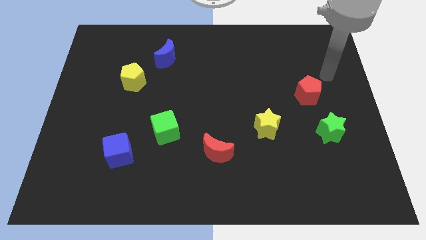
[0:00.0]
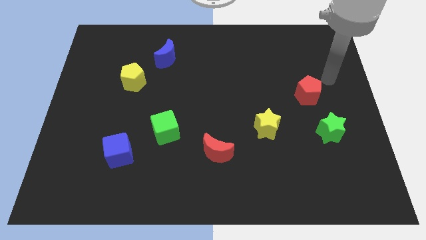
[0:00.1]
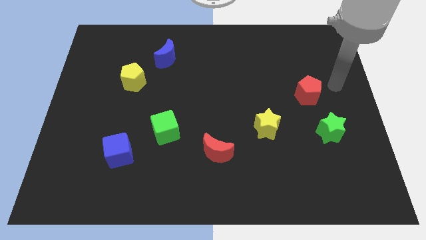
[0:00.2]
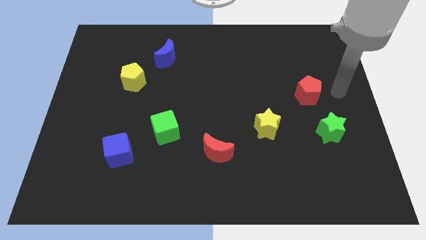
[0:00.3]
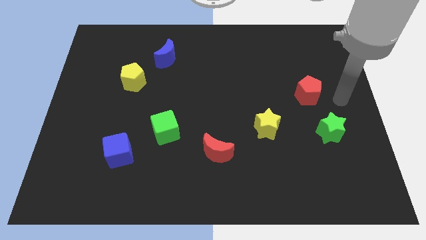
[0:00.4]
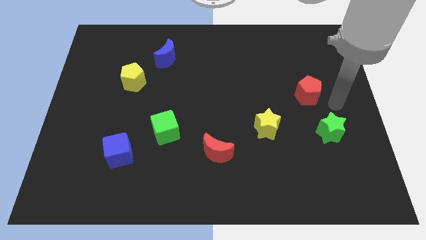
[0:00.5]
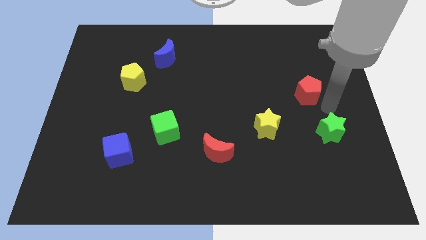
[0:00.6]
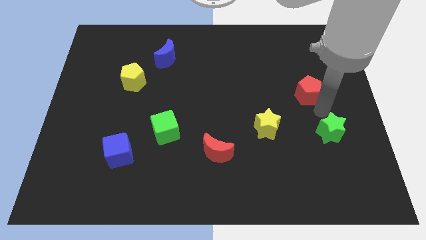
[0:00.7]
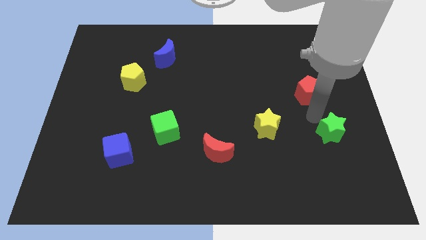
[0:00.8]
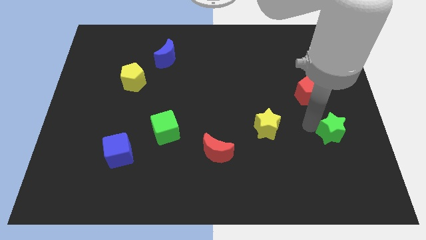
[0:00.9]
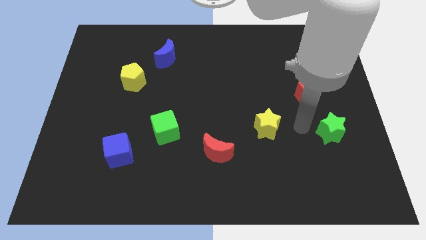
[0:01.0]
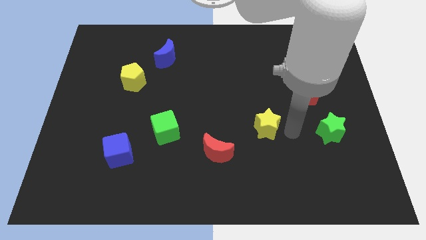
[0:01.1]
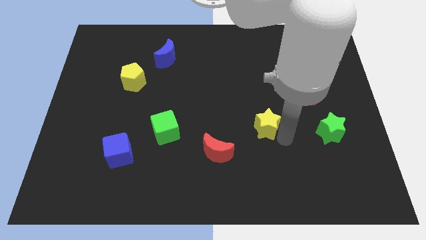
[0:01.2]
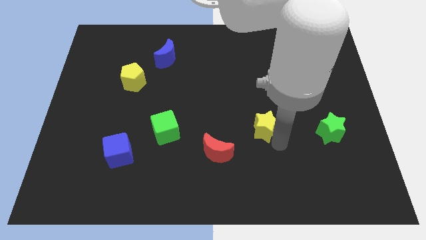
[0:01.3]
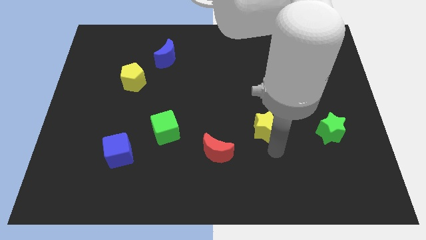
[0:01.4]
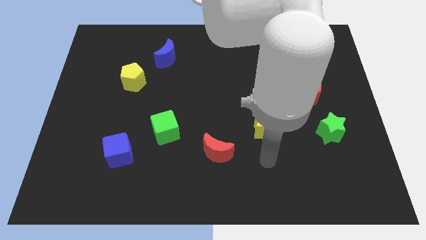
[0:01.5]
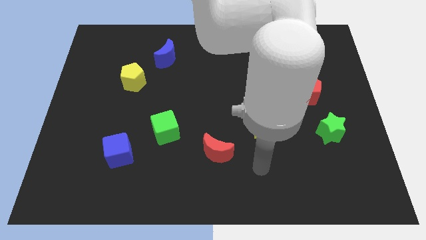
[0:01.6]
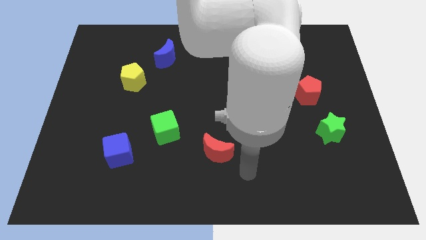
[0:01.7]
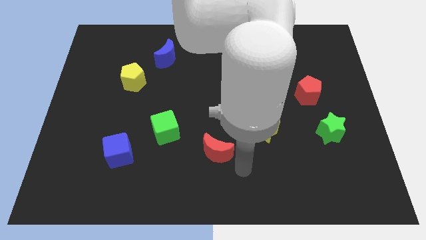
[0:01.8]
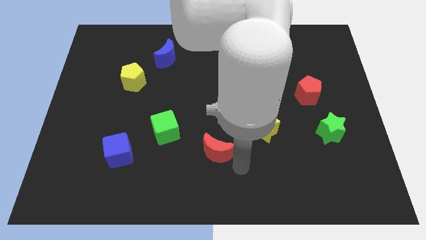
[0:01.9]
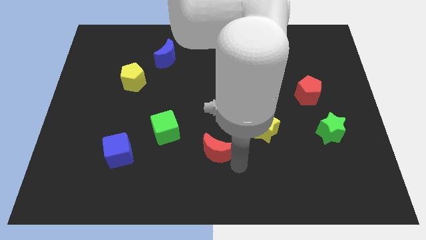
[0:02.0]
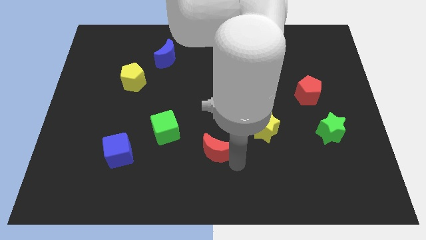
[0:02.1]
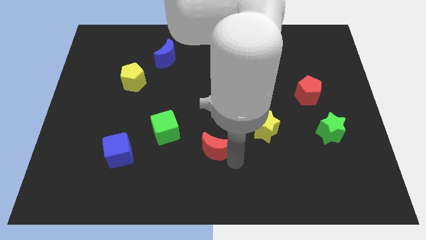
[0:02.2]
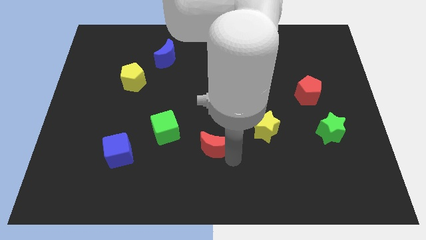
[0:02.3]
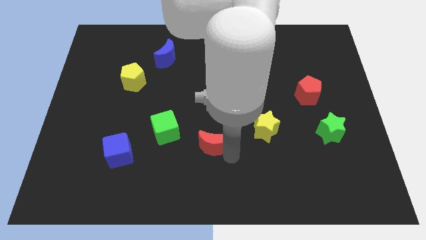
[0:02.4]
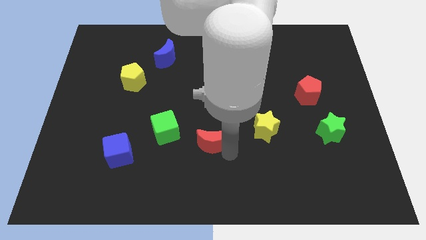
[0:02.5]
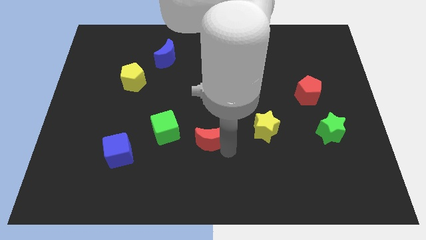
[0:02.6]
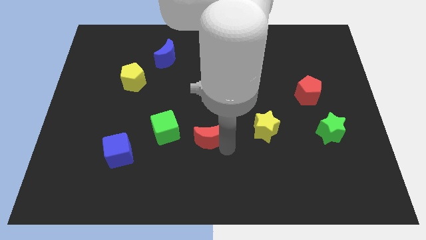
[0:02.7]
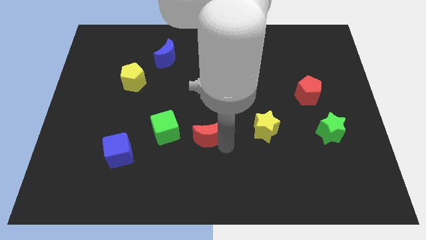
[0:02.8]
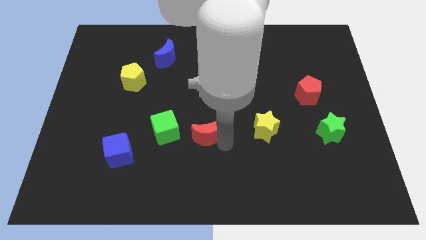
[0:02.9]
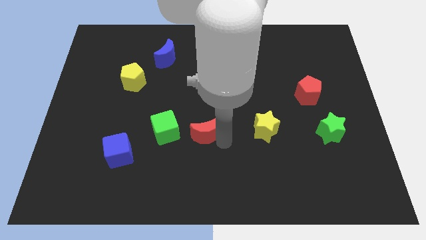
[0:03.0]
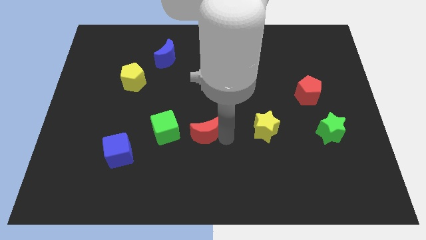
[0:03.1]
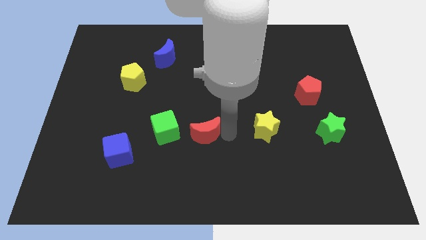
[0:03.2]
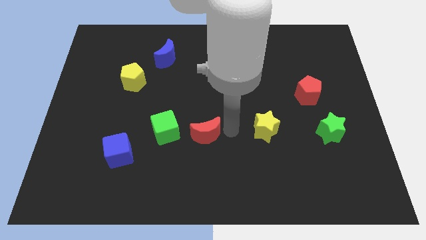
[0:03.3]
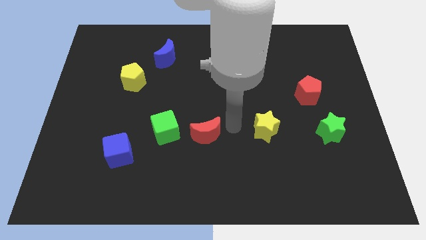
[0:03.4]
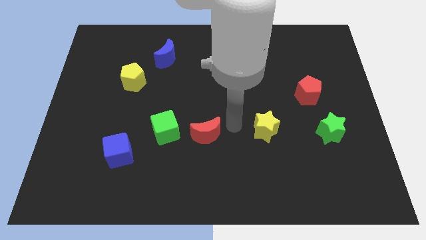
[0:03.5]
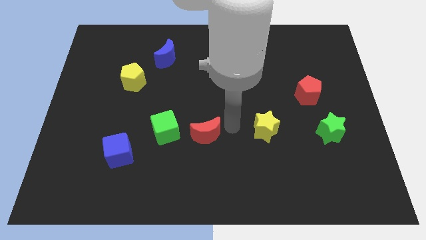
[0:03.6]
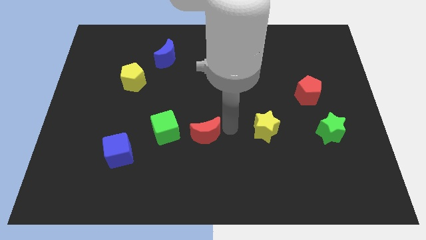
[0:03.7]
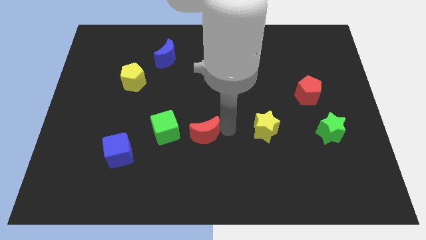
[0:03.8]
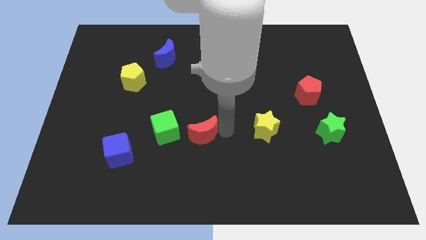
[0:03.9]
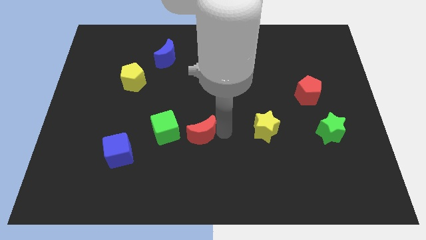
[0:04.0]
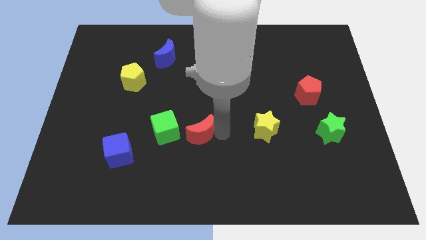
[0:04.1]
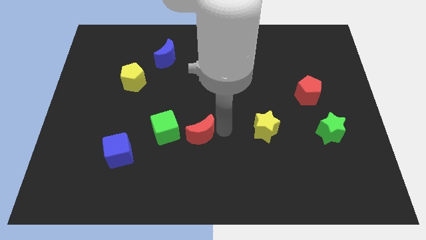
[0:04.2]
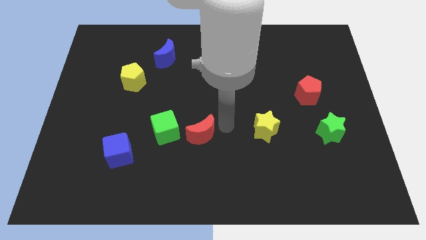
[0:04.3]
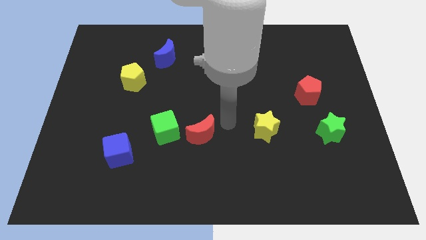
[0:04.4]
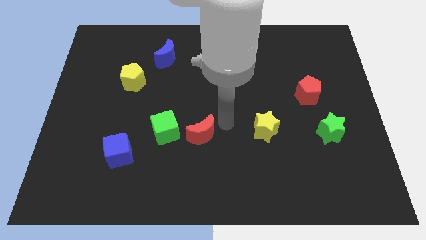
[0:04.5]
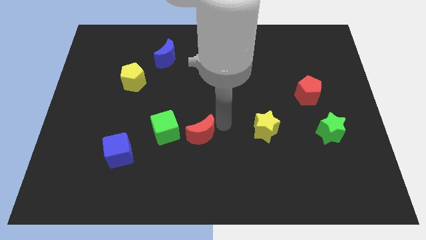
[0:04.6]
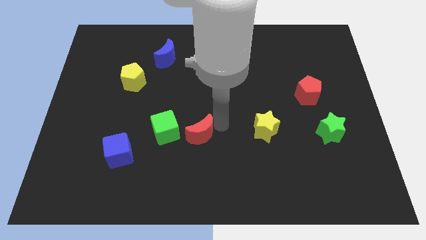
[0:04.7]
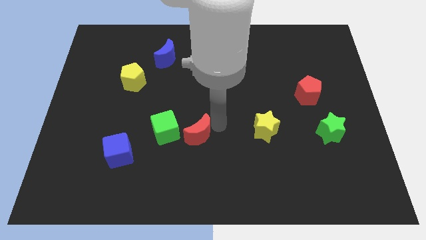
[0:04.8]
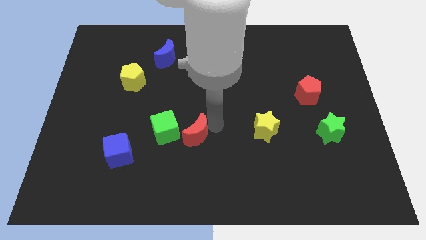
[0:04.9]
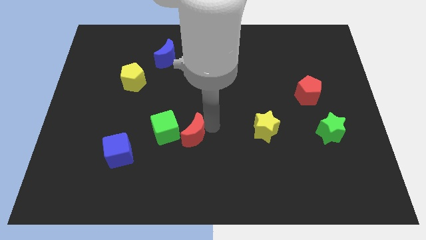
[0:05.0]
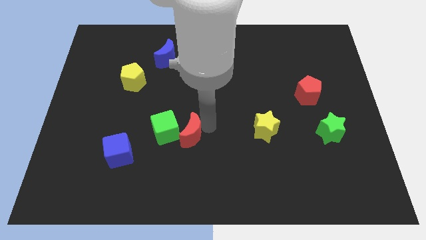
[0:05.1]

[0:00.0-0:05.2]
move the red moon to the green cube

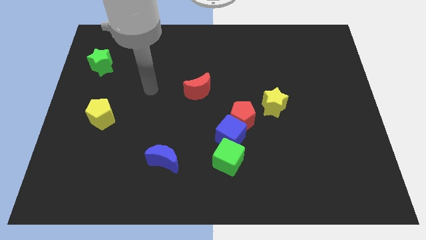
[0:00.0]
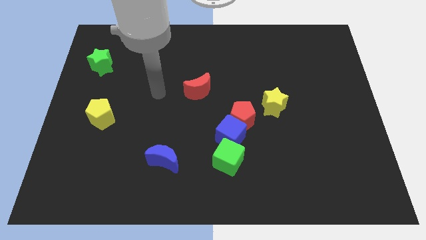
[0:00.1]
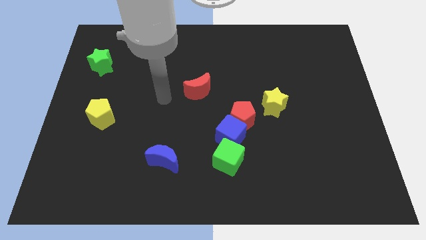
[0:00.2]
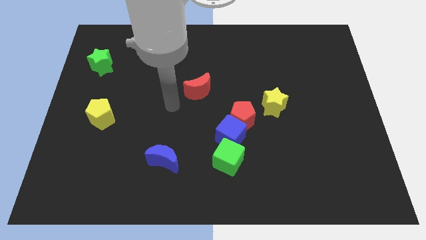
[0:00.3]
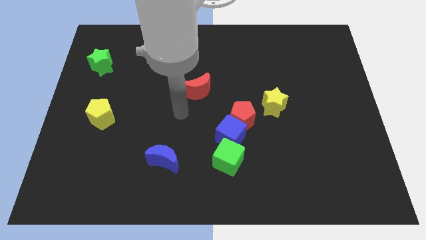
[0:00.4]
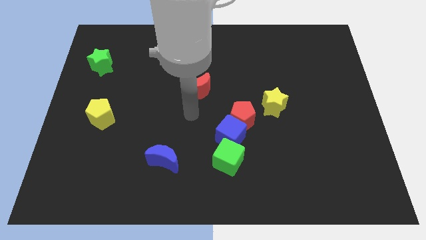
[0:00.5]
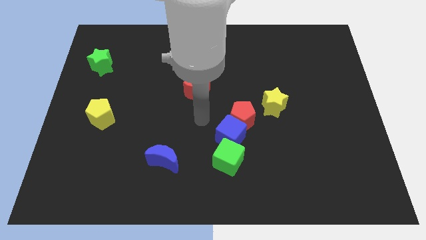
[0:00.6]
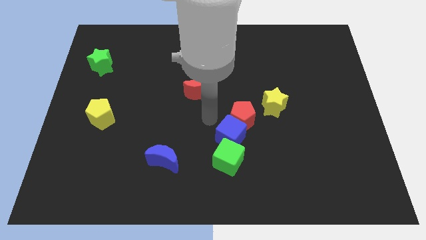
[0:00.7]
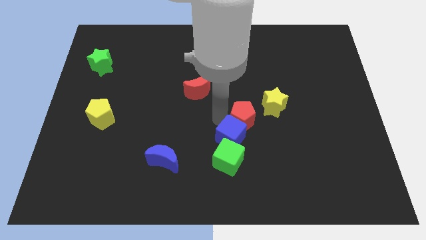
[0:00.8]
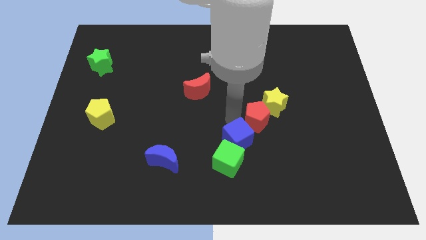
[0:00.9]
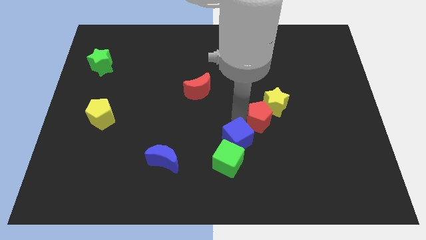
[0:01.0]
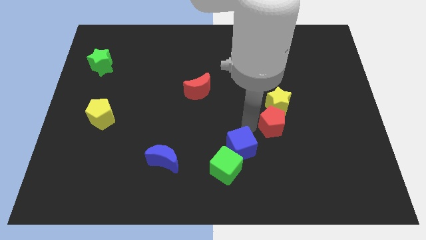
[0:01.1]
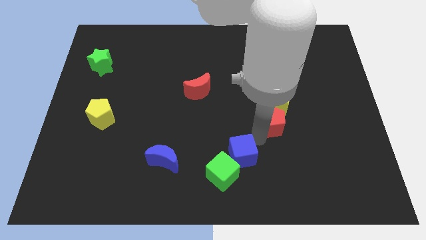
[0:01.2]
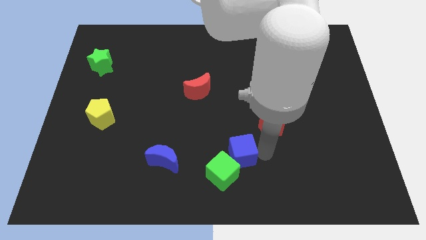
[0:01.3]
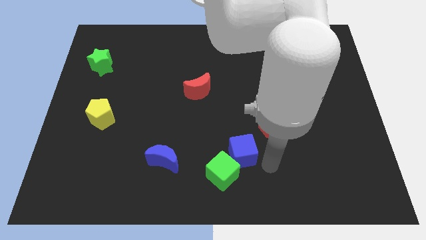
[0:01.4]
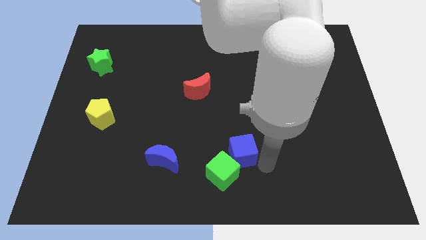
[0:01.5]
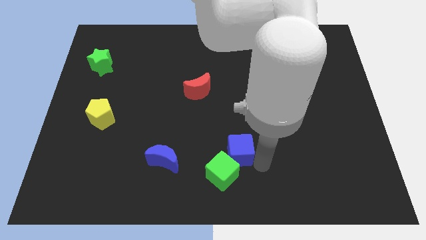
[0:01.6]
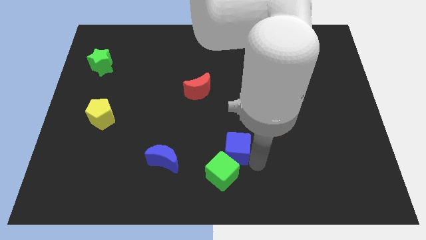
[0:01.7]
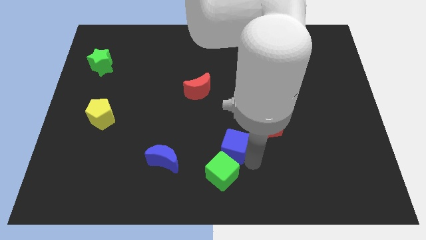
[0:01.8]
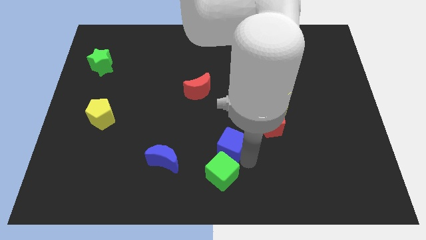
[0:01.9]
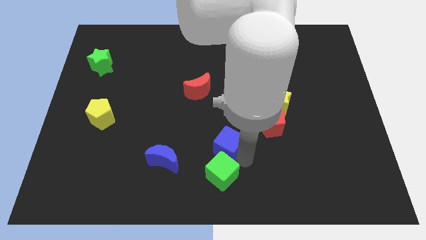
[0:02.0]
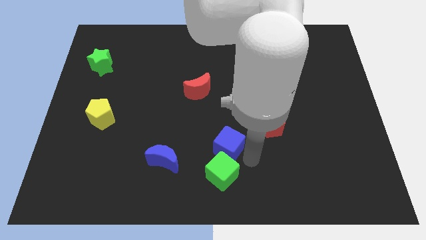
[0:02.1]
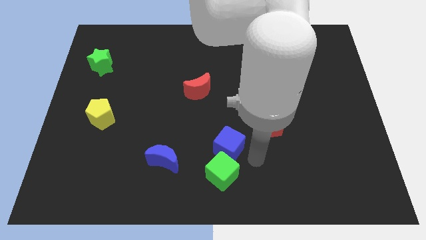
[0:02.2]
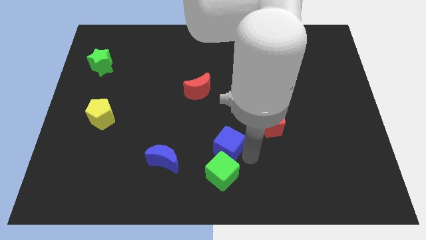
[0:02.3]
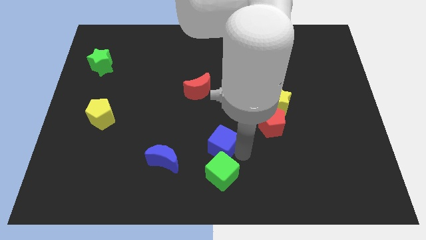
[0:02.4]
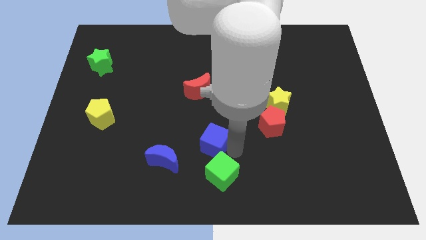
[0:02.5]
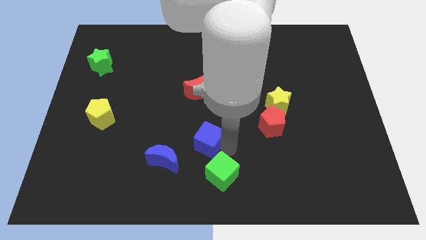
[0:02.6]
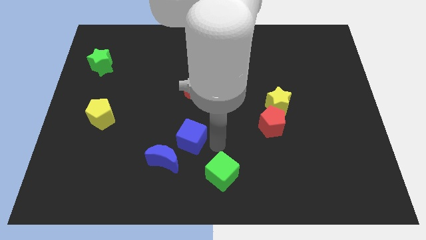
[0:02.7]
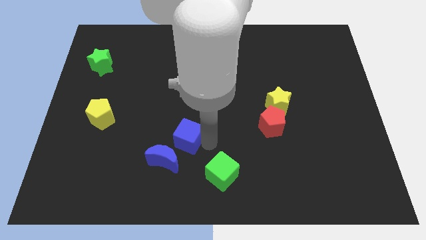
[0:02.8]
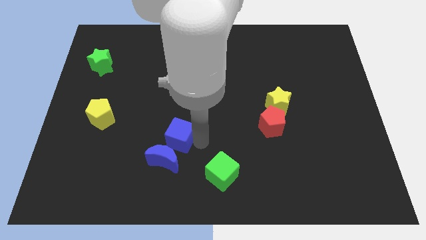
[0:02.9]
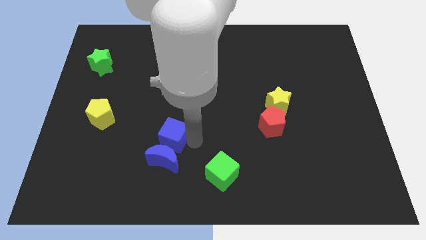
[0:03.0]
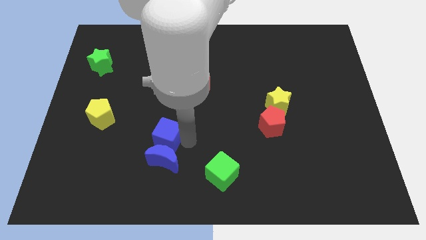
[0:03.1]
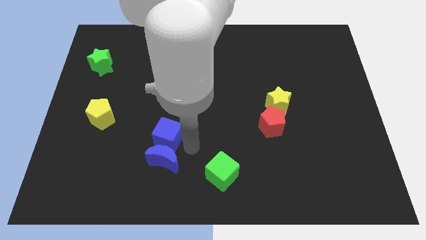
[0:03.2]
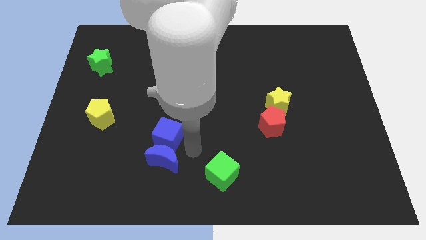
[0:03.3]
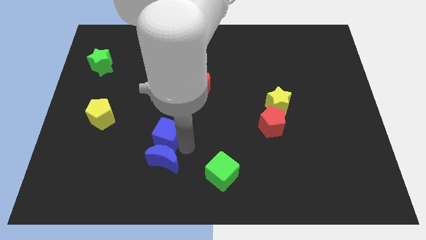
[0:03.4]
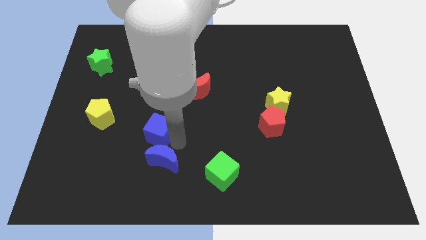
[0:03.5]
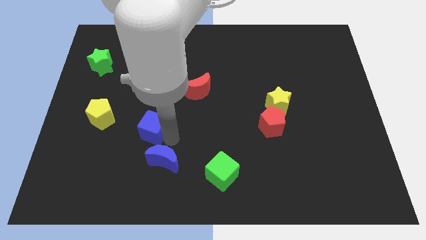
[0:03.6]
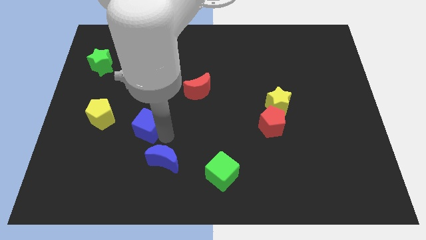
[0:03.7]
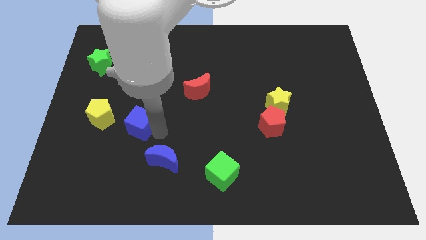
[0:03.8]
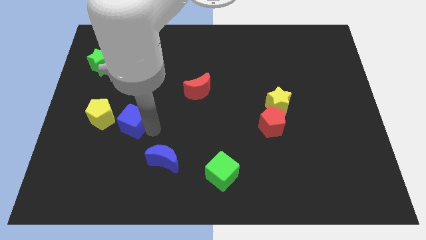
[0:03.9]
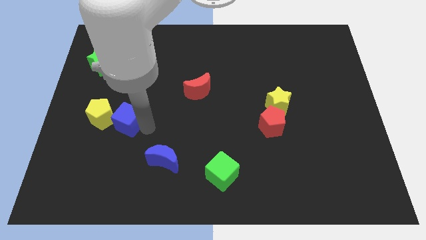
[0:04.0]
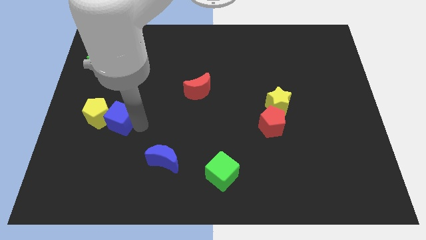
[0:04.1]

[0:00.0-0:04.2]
move the blue cube towards the yellow pentagon
